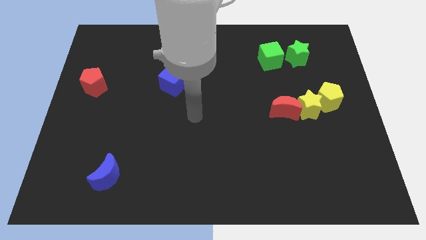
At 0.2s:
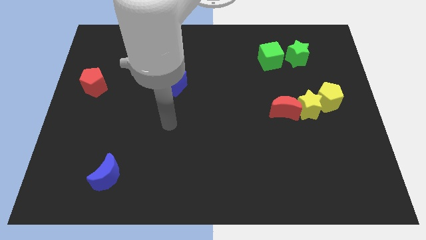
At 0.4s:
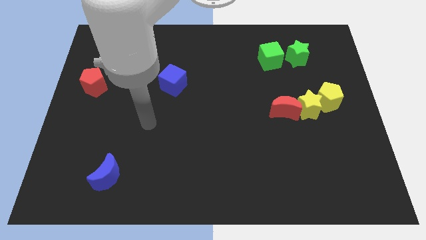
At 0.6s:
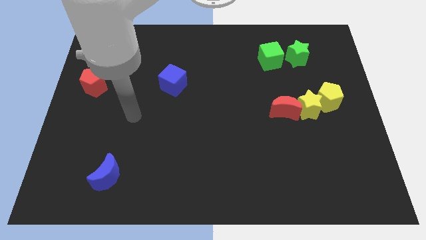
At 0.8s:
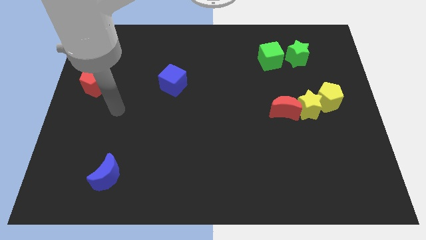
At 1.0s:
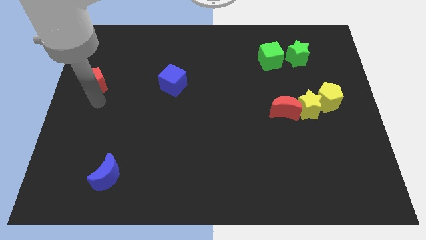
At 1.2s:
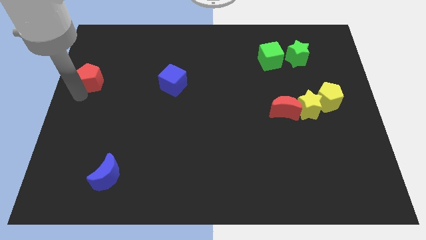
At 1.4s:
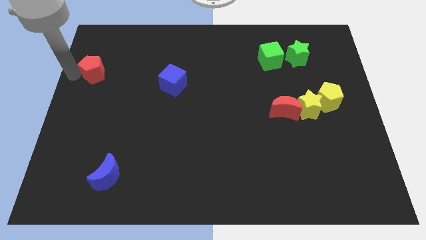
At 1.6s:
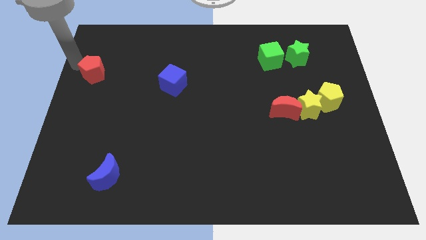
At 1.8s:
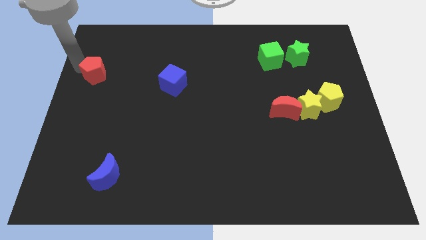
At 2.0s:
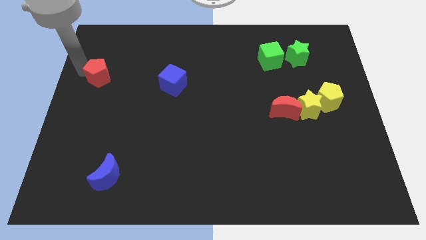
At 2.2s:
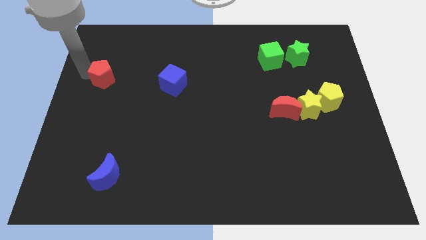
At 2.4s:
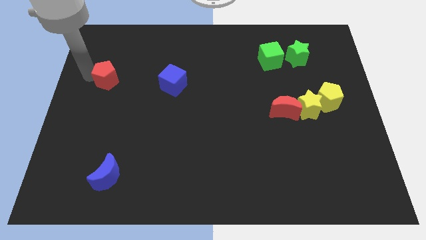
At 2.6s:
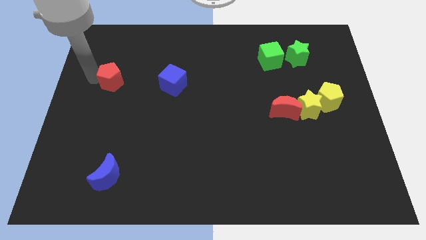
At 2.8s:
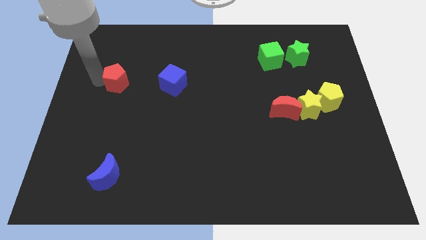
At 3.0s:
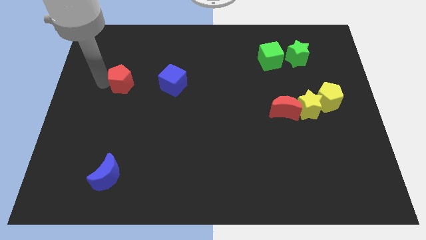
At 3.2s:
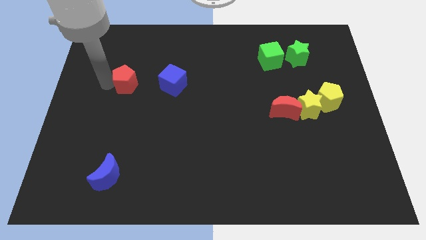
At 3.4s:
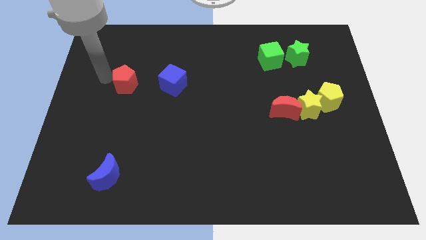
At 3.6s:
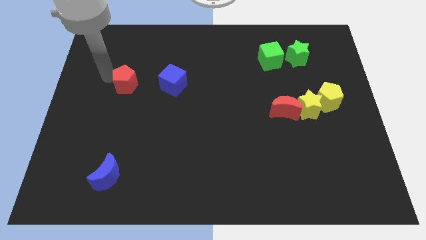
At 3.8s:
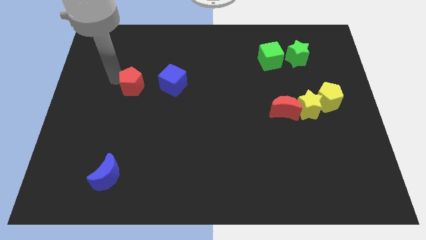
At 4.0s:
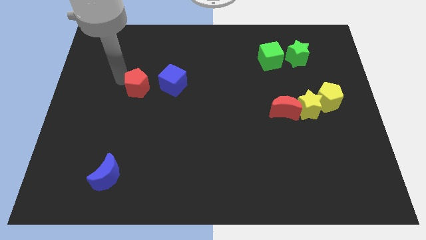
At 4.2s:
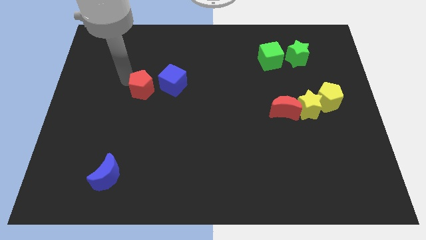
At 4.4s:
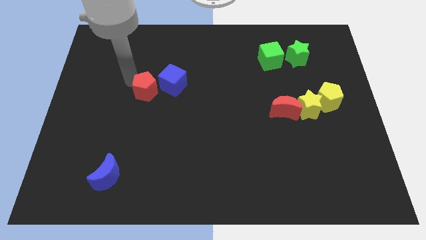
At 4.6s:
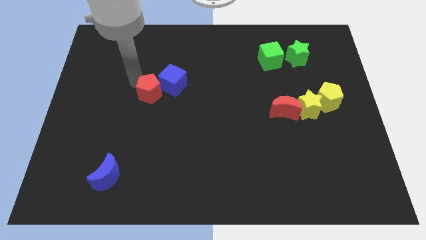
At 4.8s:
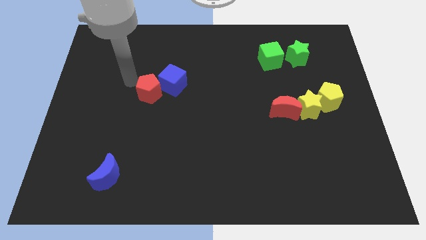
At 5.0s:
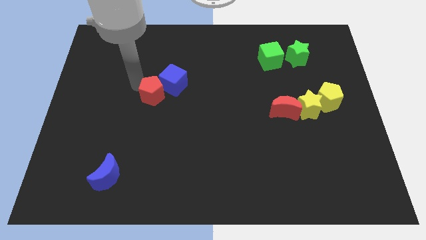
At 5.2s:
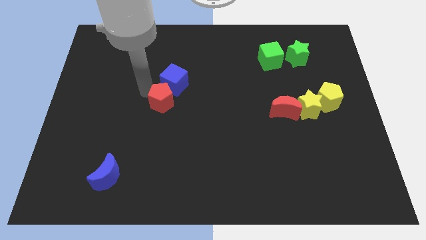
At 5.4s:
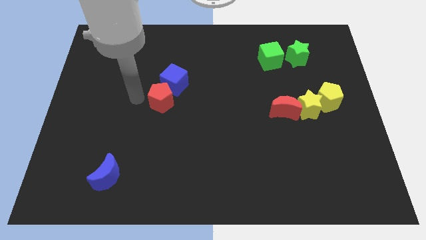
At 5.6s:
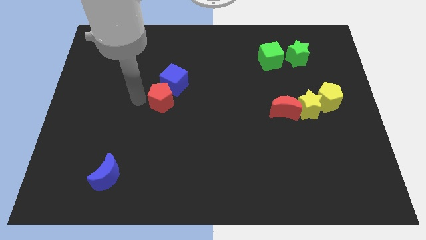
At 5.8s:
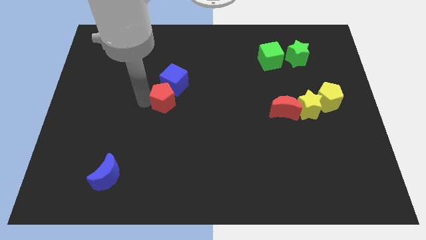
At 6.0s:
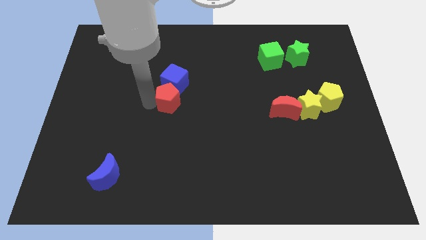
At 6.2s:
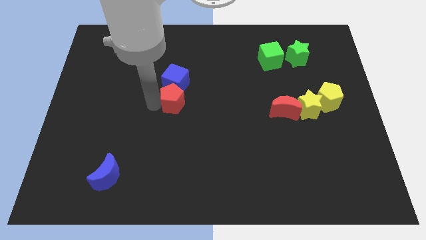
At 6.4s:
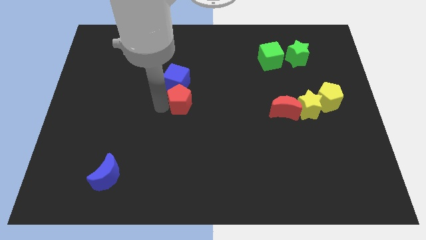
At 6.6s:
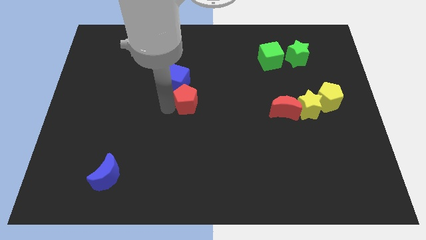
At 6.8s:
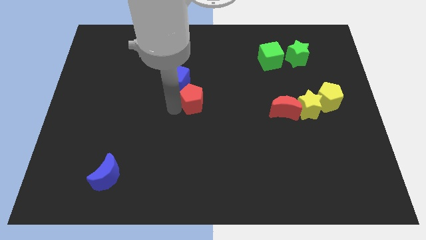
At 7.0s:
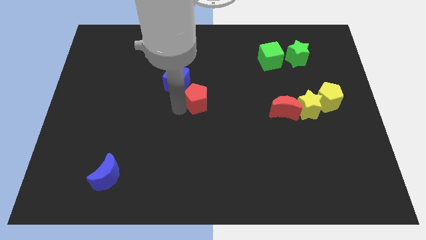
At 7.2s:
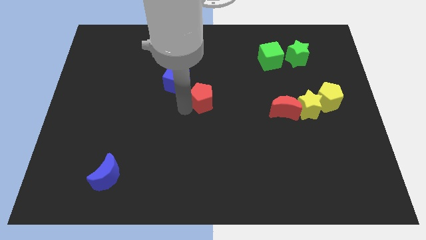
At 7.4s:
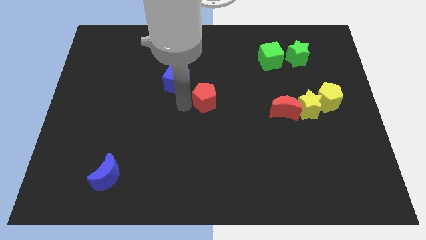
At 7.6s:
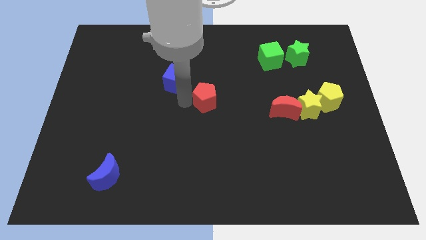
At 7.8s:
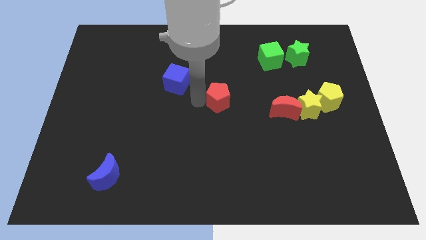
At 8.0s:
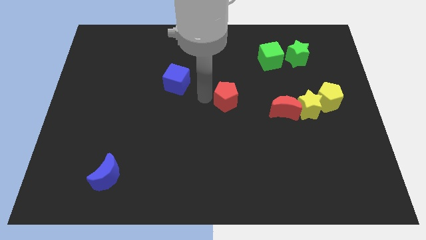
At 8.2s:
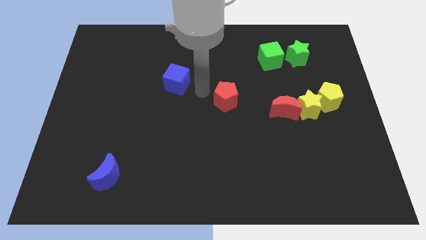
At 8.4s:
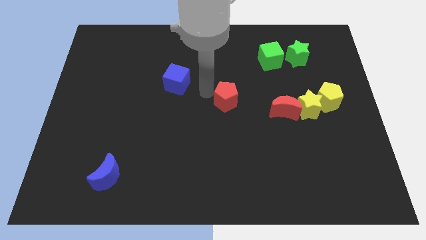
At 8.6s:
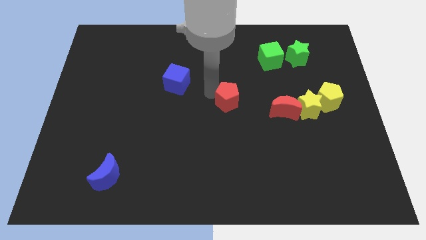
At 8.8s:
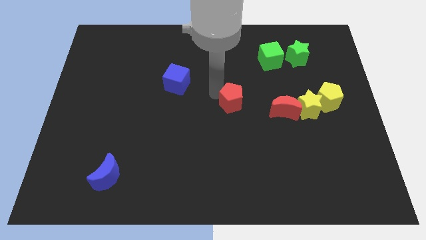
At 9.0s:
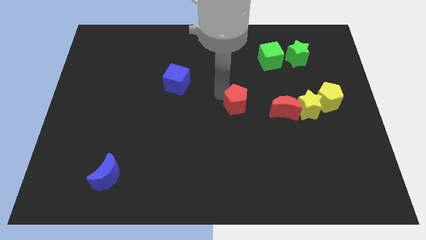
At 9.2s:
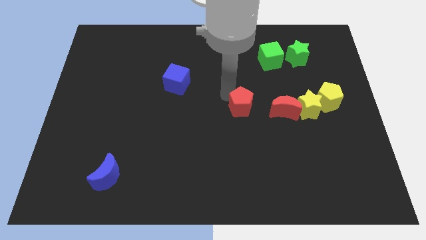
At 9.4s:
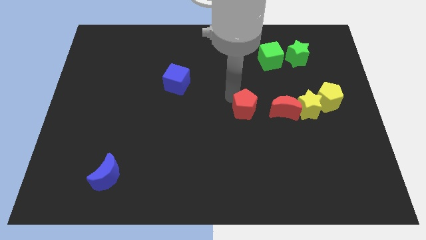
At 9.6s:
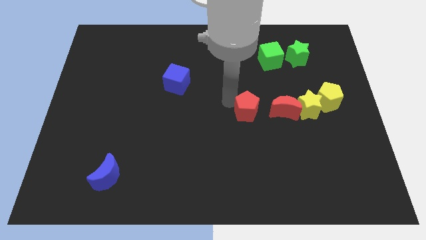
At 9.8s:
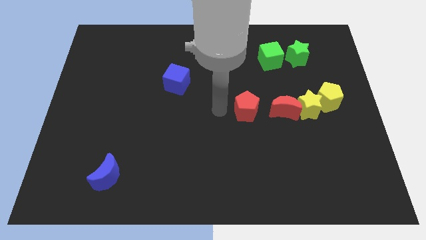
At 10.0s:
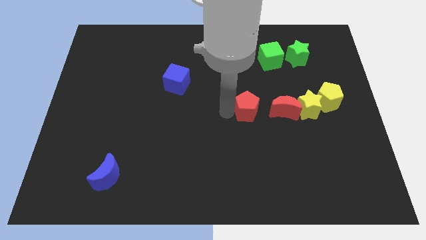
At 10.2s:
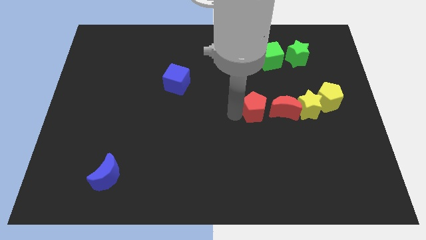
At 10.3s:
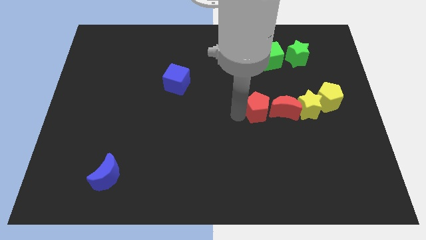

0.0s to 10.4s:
slide the red pentagon next to the red moon
